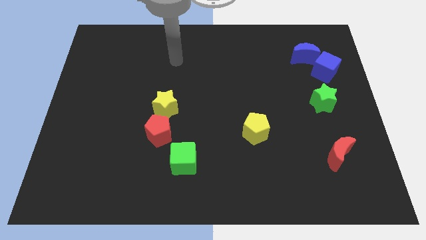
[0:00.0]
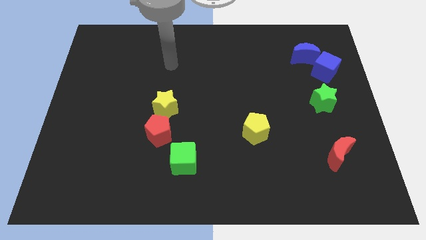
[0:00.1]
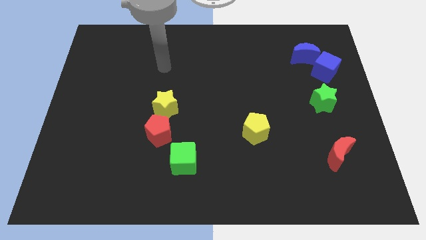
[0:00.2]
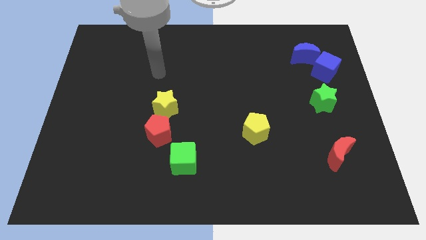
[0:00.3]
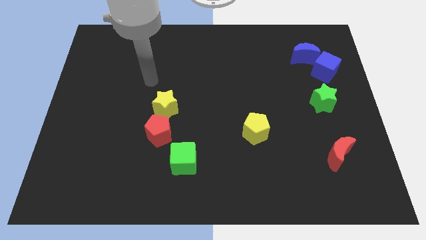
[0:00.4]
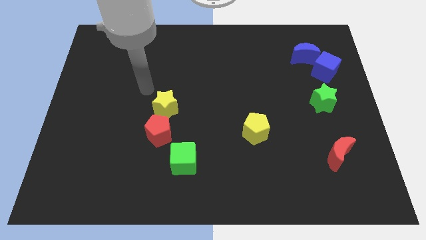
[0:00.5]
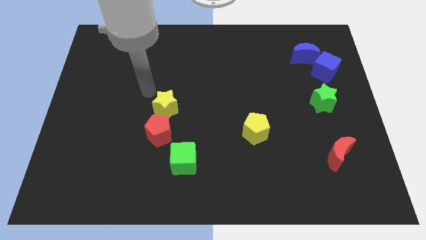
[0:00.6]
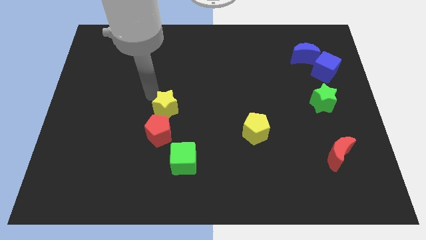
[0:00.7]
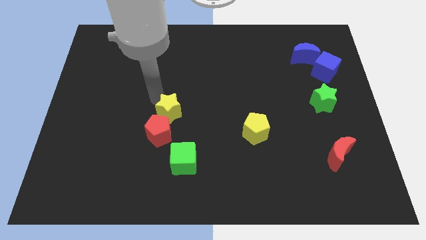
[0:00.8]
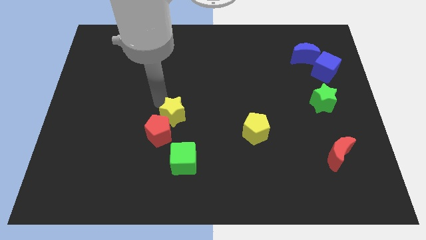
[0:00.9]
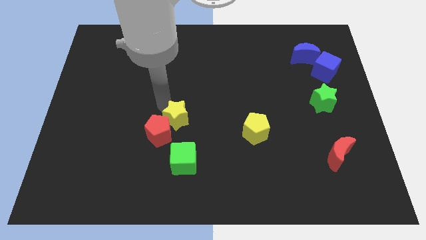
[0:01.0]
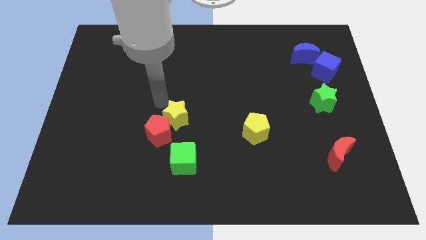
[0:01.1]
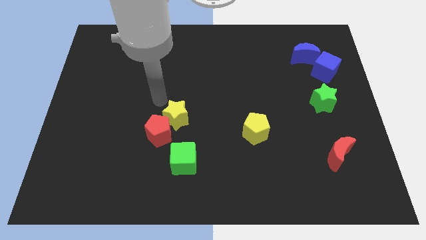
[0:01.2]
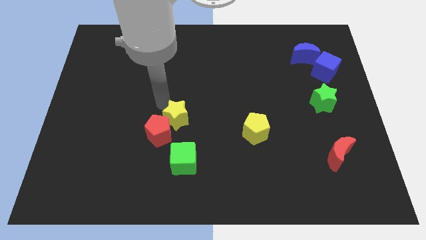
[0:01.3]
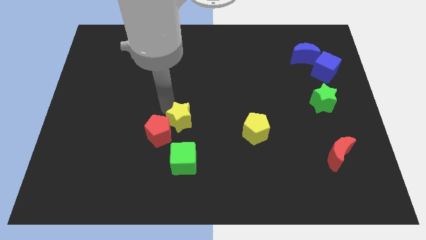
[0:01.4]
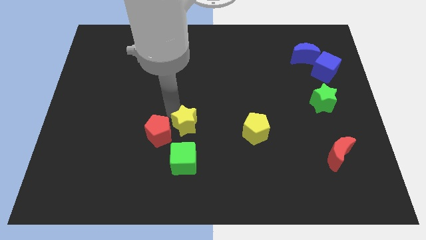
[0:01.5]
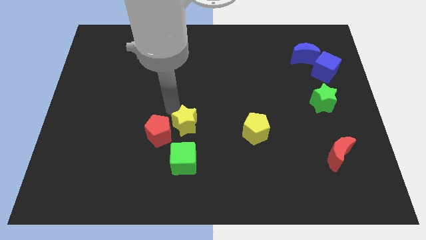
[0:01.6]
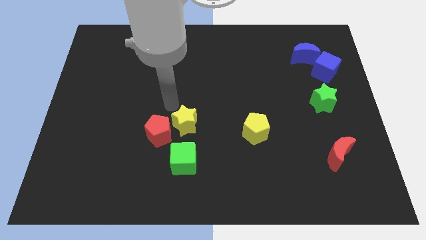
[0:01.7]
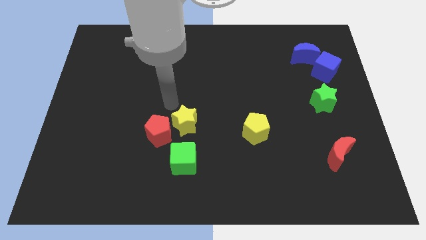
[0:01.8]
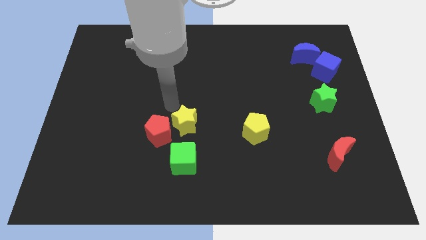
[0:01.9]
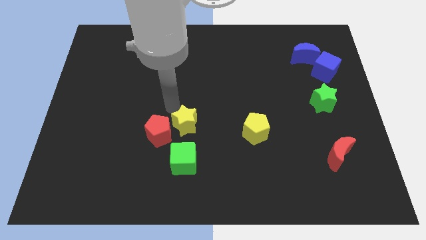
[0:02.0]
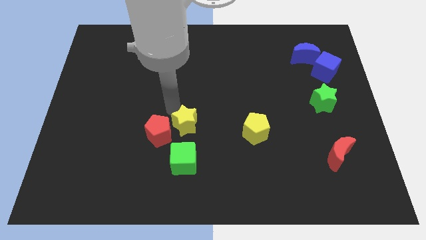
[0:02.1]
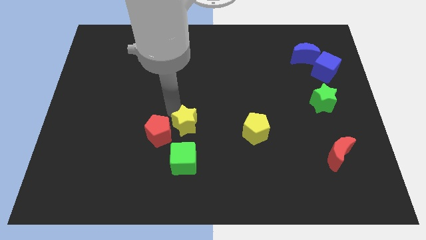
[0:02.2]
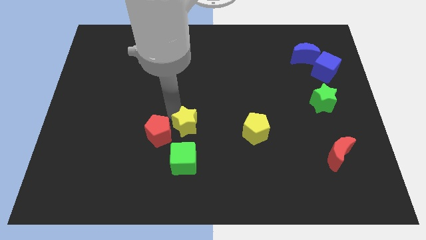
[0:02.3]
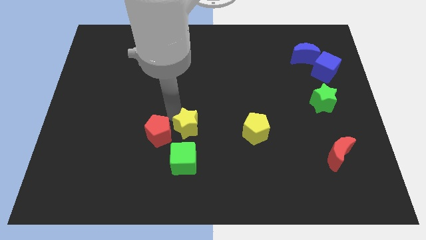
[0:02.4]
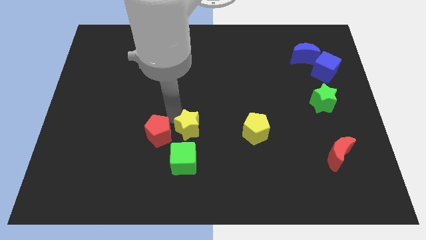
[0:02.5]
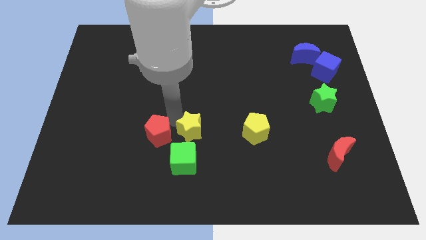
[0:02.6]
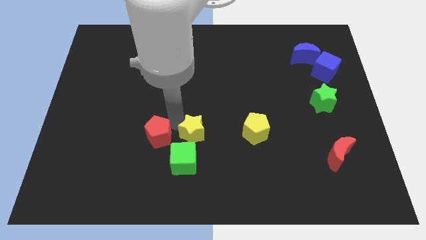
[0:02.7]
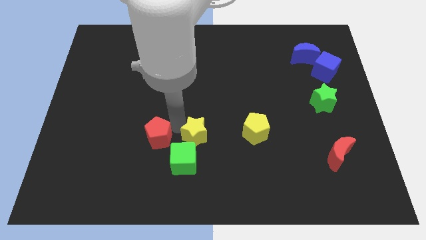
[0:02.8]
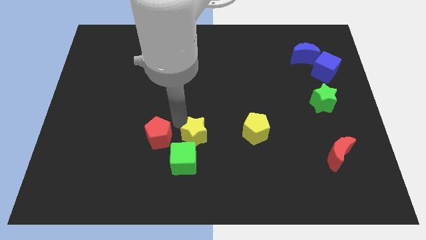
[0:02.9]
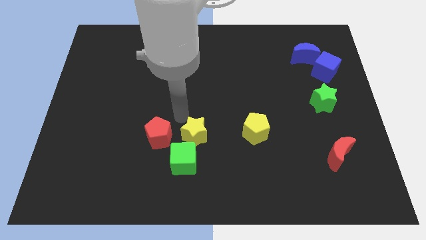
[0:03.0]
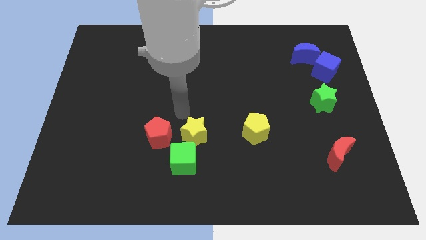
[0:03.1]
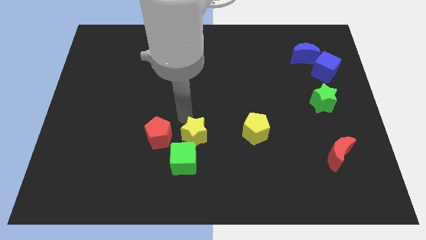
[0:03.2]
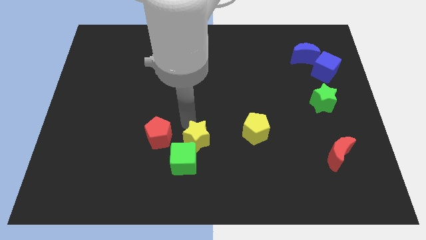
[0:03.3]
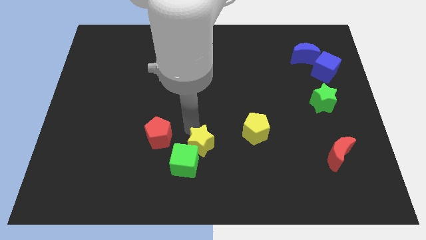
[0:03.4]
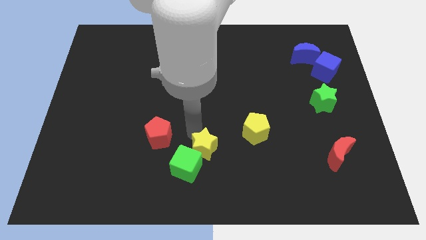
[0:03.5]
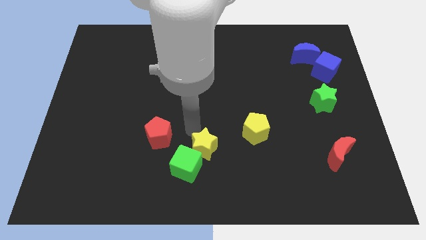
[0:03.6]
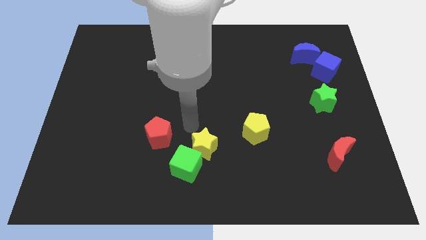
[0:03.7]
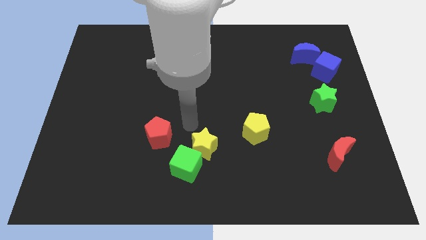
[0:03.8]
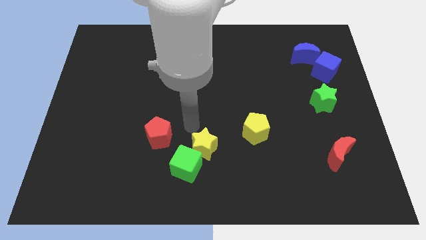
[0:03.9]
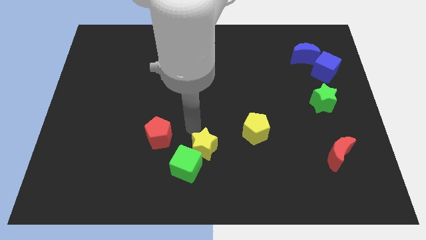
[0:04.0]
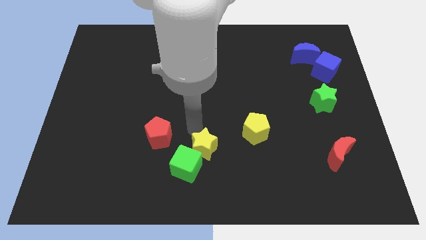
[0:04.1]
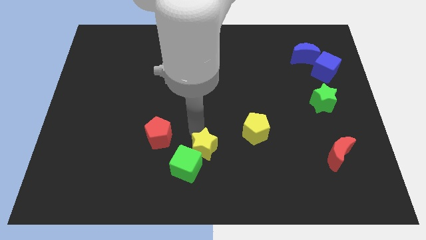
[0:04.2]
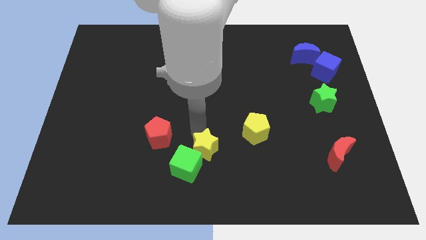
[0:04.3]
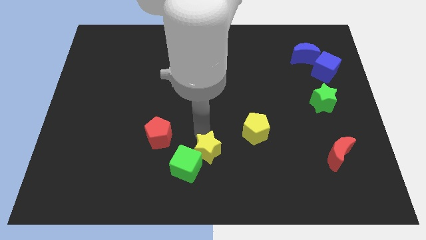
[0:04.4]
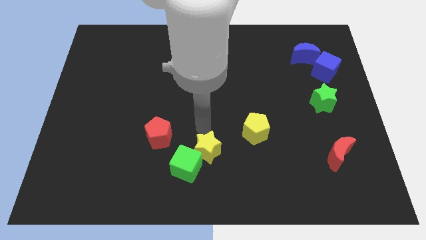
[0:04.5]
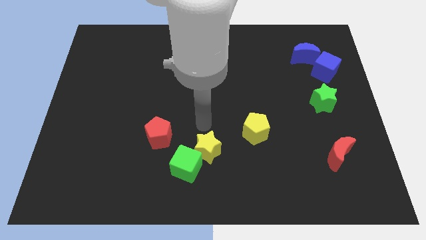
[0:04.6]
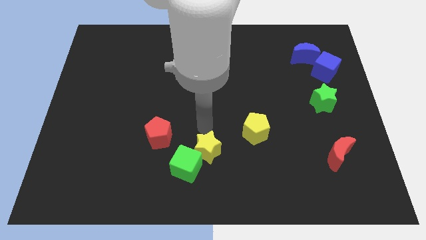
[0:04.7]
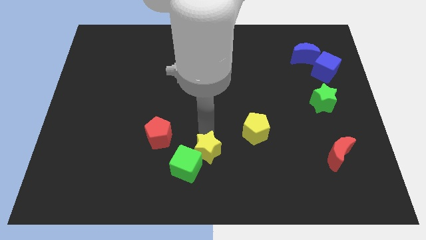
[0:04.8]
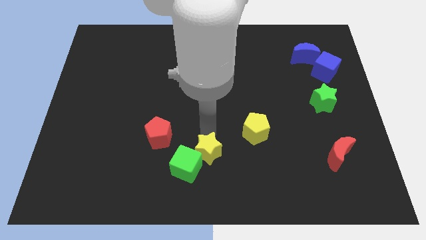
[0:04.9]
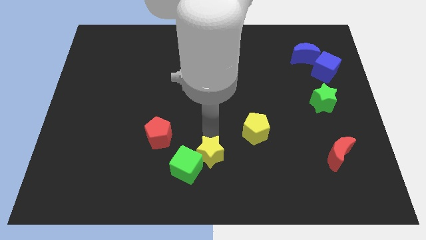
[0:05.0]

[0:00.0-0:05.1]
slide the yellow star to the bottom side

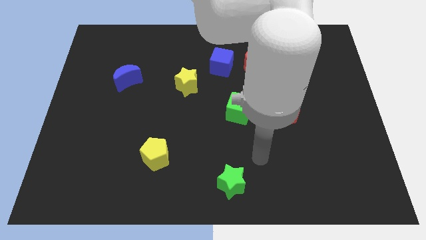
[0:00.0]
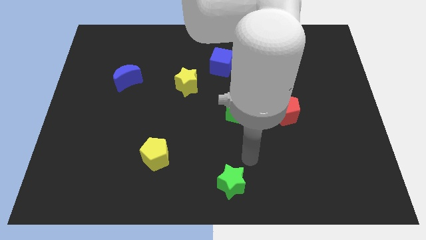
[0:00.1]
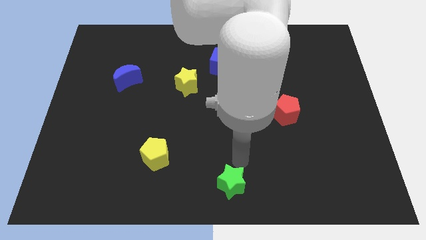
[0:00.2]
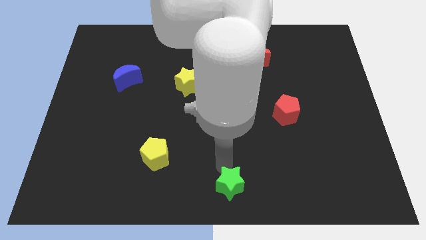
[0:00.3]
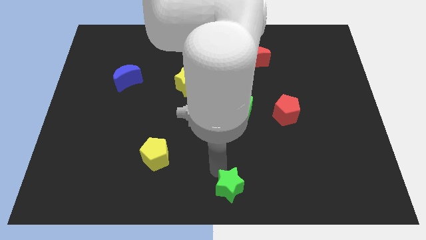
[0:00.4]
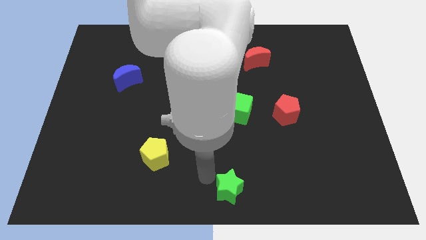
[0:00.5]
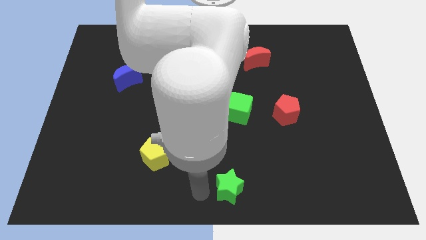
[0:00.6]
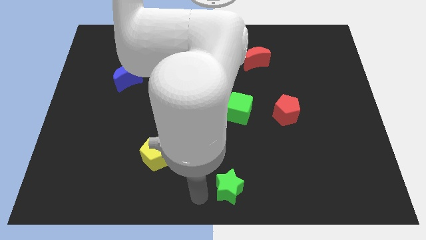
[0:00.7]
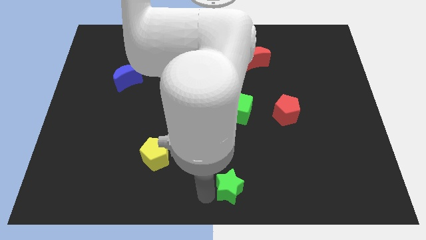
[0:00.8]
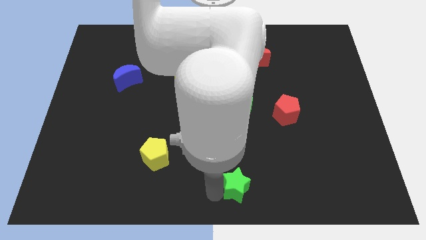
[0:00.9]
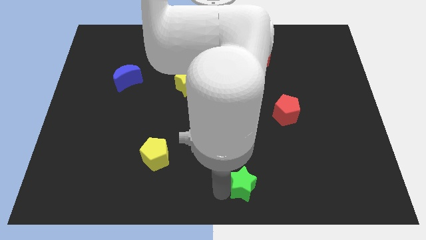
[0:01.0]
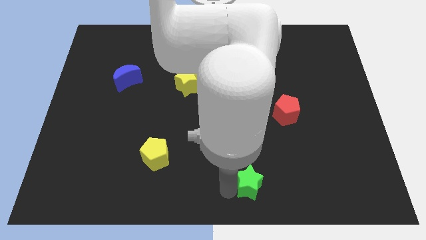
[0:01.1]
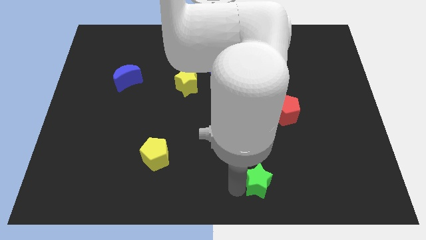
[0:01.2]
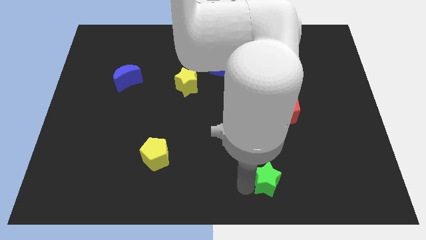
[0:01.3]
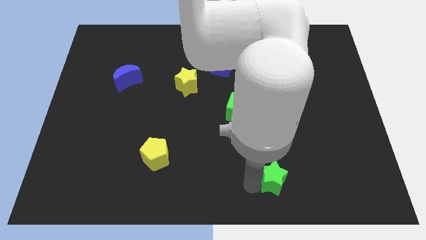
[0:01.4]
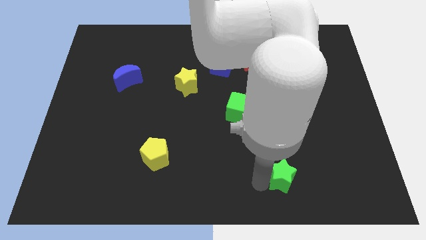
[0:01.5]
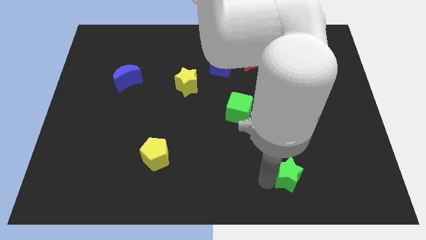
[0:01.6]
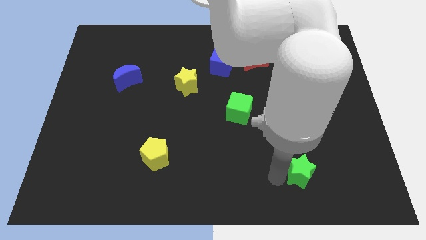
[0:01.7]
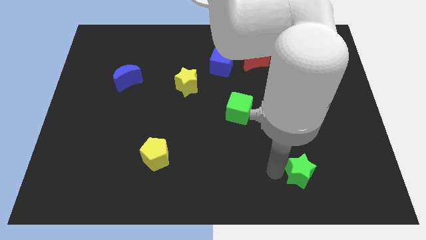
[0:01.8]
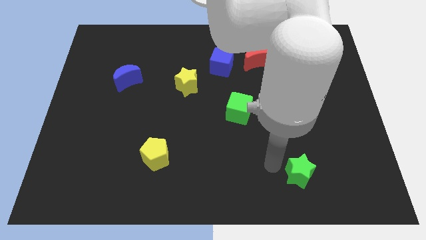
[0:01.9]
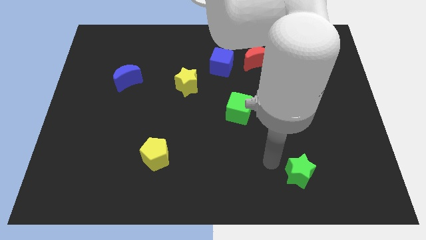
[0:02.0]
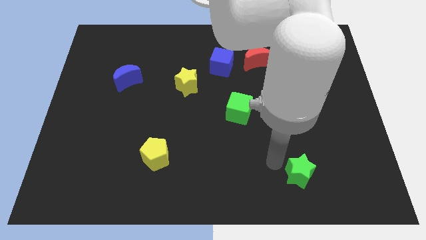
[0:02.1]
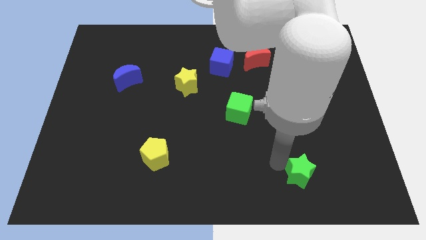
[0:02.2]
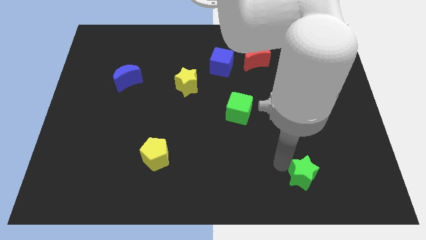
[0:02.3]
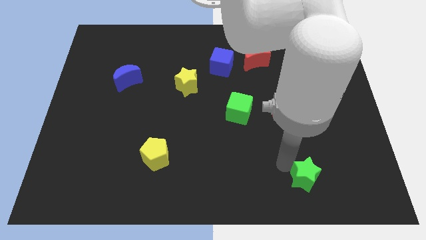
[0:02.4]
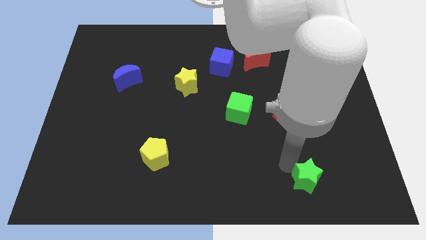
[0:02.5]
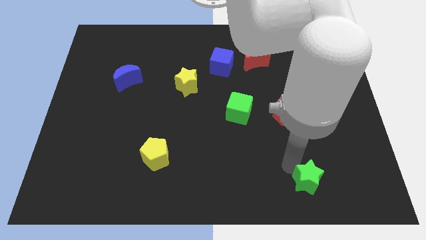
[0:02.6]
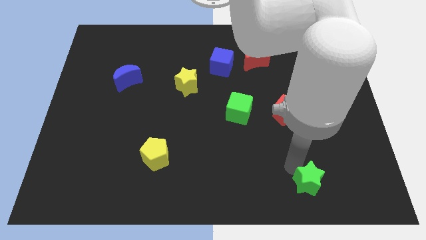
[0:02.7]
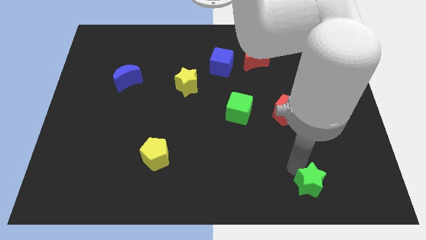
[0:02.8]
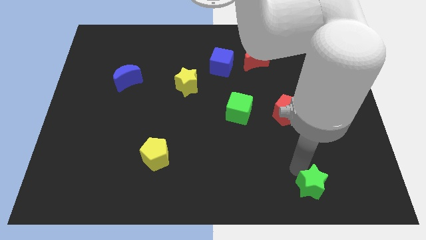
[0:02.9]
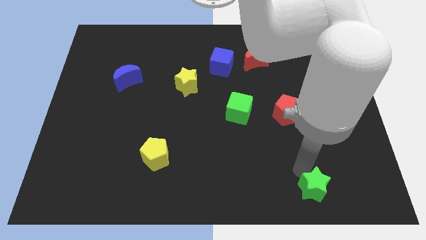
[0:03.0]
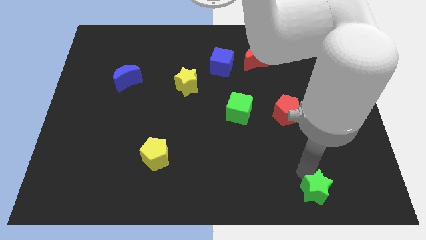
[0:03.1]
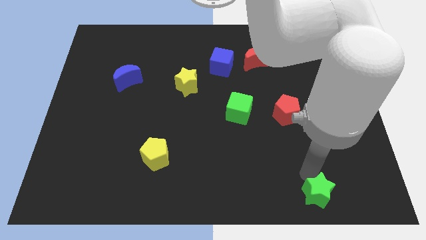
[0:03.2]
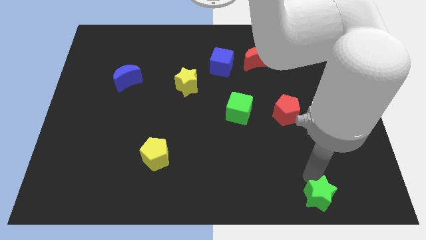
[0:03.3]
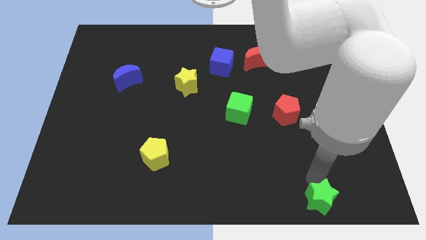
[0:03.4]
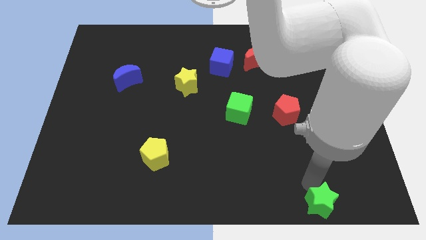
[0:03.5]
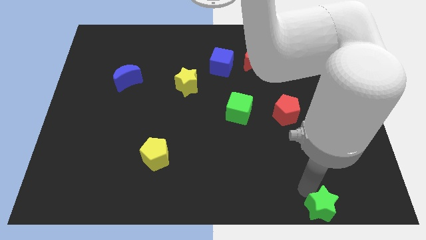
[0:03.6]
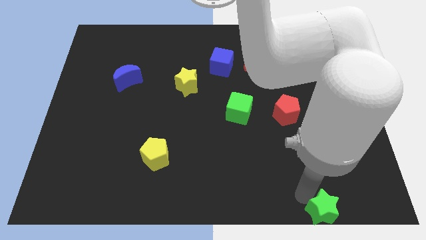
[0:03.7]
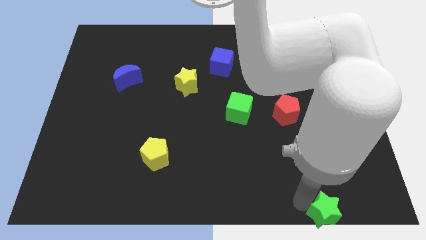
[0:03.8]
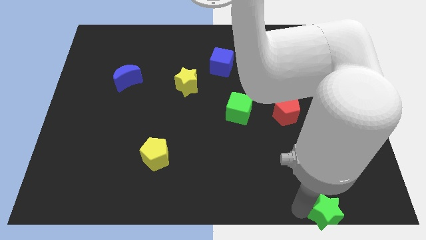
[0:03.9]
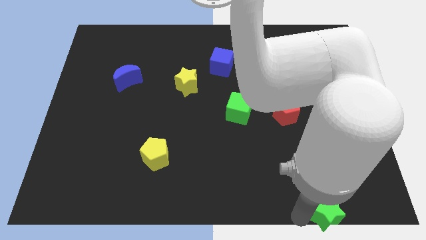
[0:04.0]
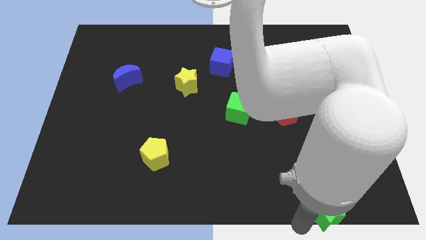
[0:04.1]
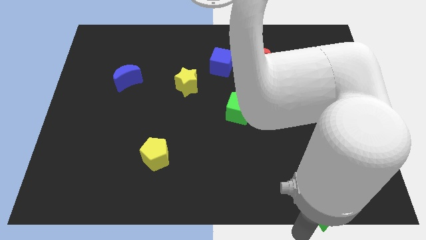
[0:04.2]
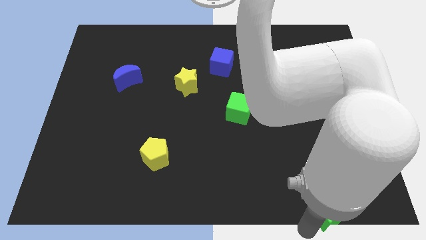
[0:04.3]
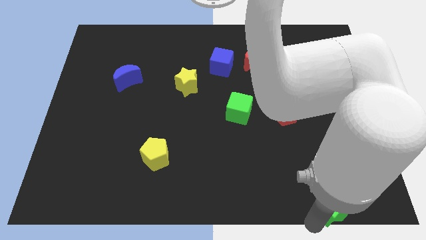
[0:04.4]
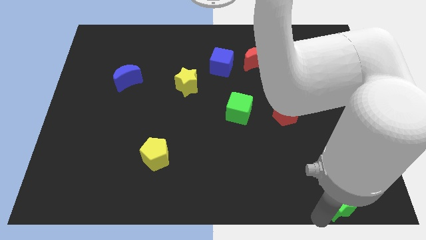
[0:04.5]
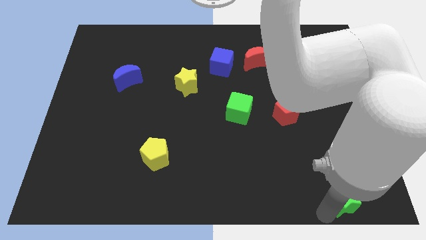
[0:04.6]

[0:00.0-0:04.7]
push the green star to the bottom right of the board
